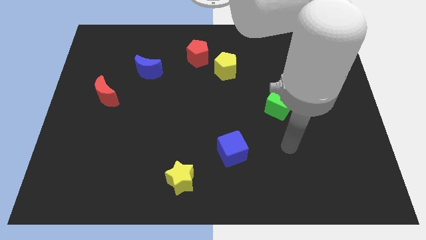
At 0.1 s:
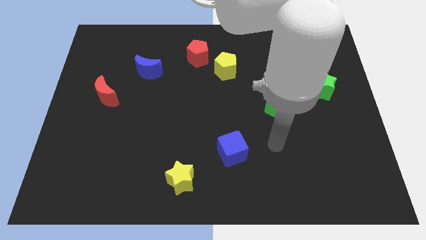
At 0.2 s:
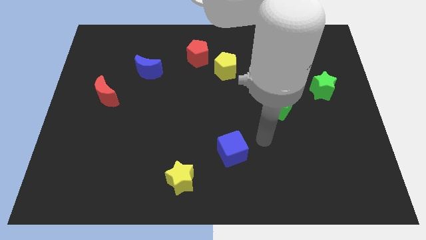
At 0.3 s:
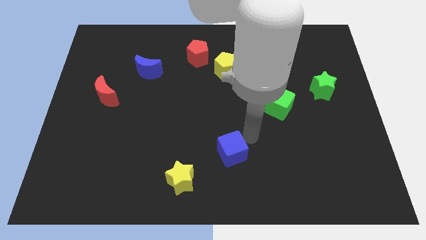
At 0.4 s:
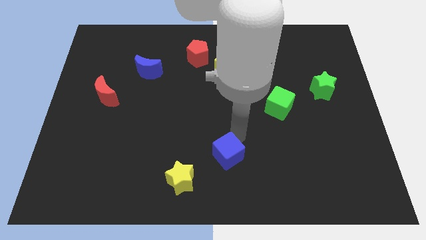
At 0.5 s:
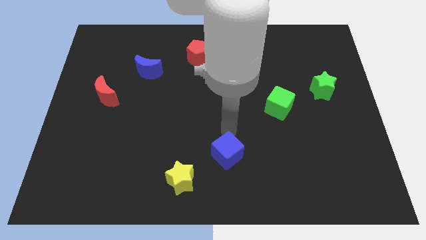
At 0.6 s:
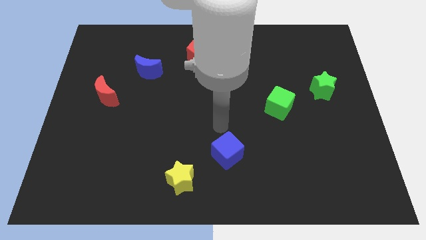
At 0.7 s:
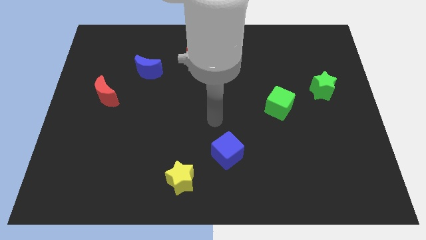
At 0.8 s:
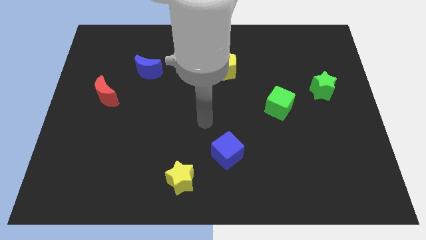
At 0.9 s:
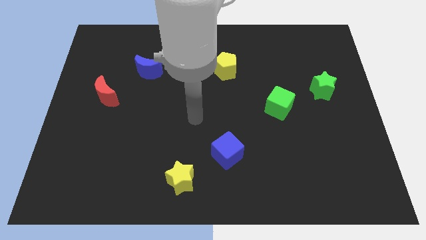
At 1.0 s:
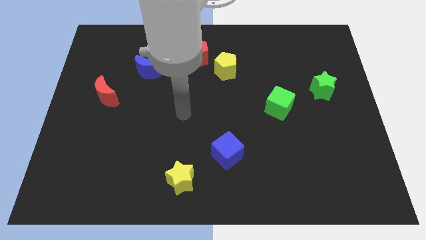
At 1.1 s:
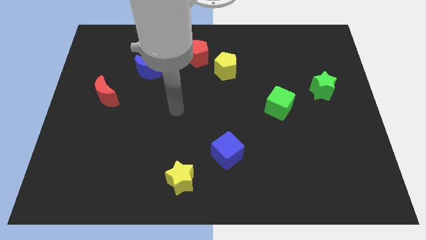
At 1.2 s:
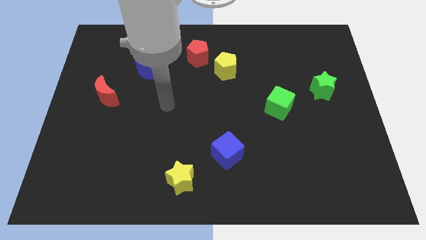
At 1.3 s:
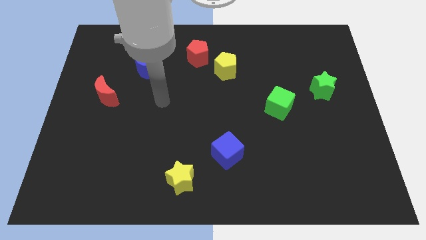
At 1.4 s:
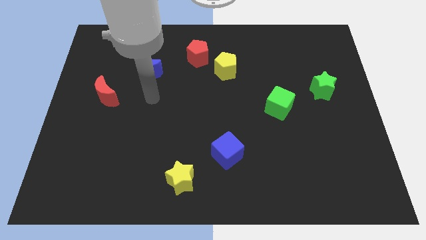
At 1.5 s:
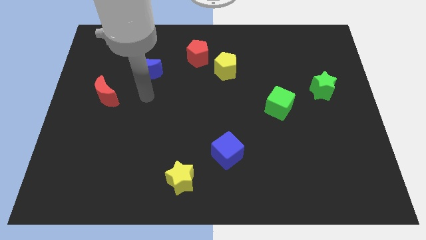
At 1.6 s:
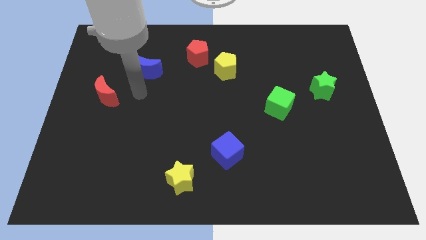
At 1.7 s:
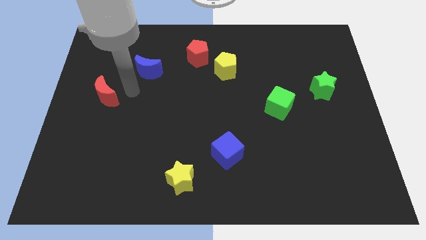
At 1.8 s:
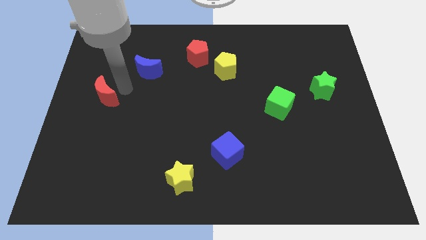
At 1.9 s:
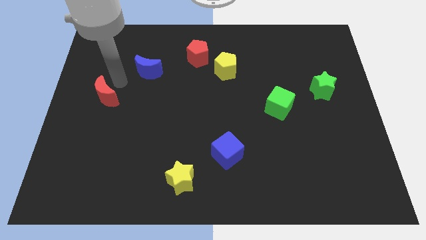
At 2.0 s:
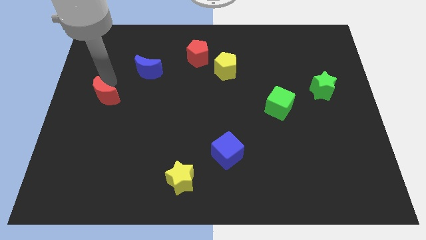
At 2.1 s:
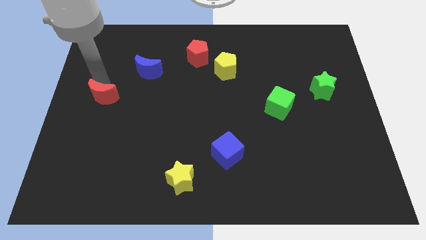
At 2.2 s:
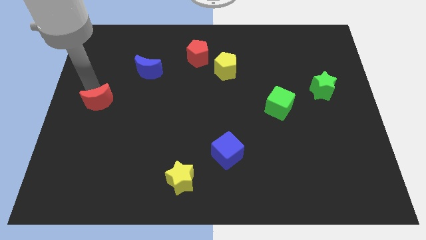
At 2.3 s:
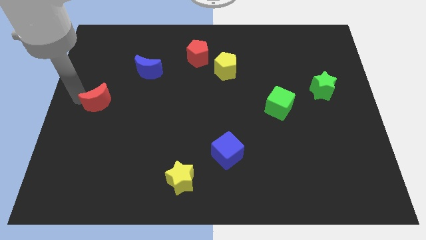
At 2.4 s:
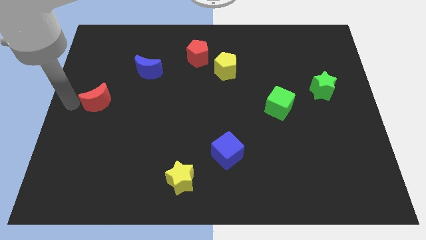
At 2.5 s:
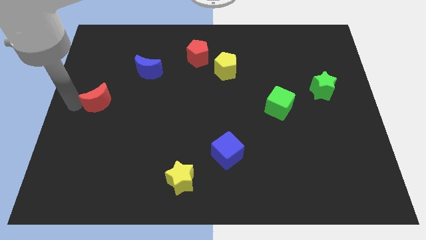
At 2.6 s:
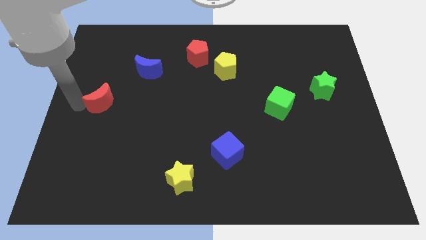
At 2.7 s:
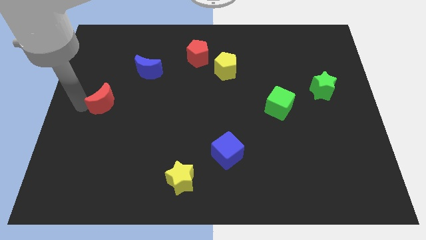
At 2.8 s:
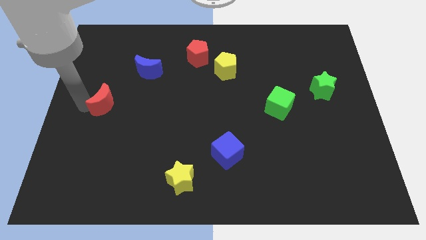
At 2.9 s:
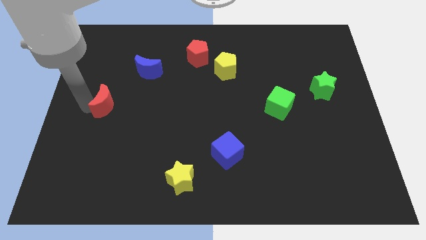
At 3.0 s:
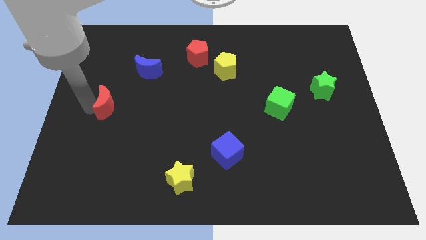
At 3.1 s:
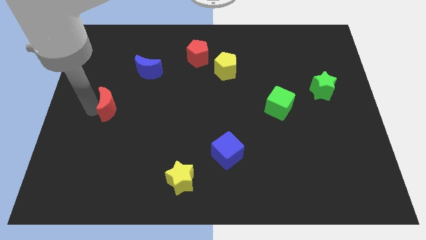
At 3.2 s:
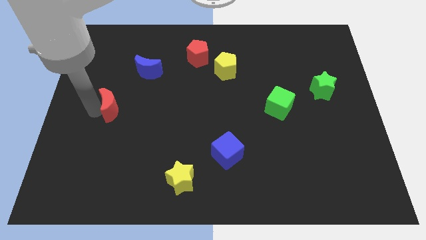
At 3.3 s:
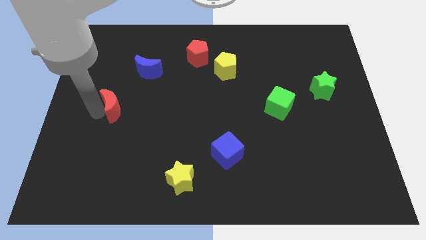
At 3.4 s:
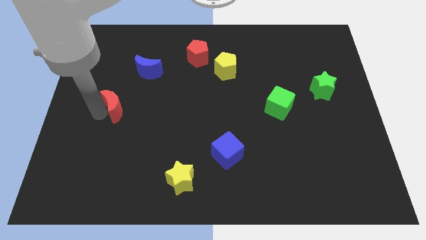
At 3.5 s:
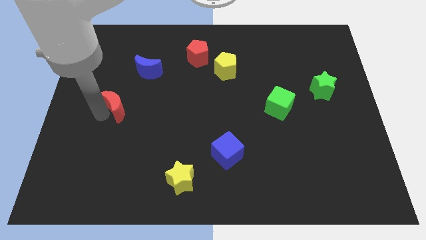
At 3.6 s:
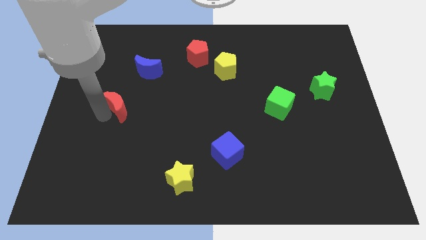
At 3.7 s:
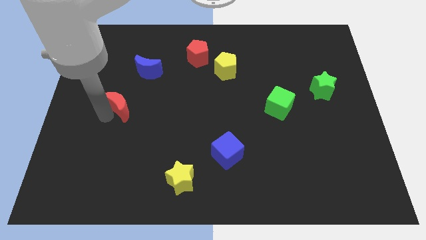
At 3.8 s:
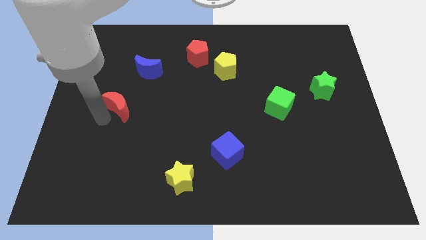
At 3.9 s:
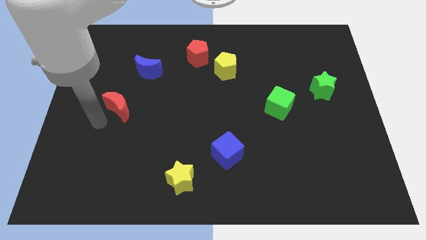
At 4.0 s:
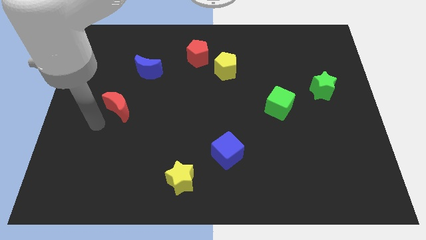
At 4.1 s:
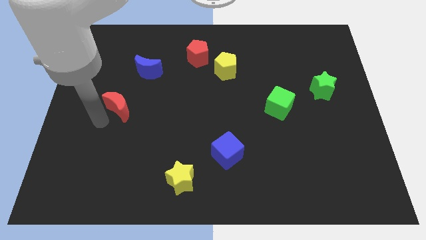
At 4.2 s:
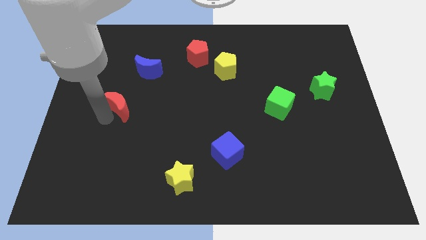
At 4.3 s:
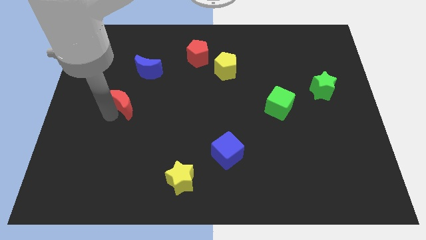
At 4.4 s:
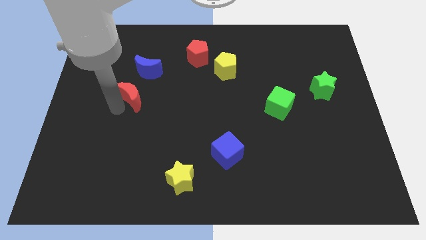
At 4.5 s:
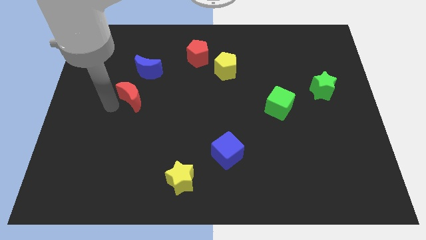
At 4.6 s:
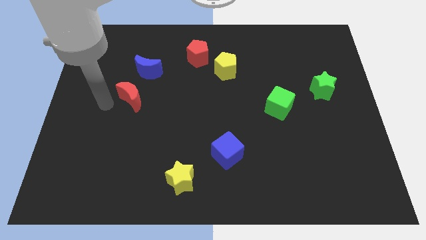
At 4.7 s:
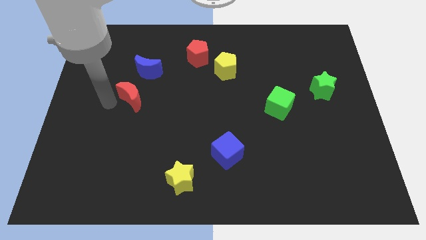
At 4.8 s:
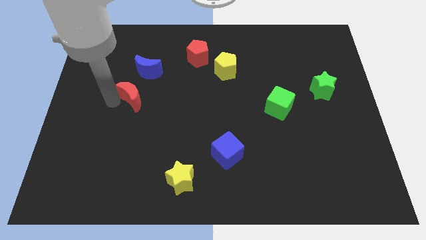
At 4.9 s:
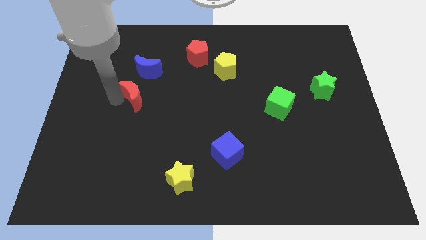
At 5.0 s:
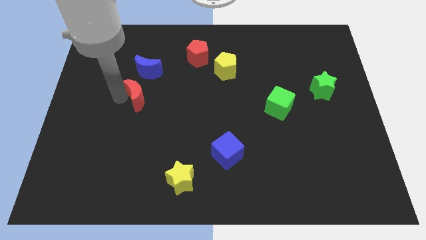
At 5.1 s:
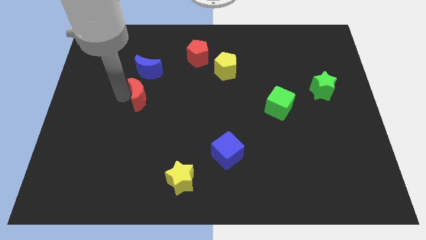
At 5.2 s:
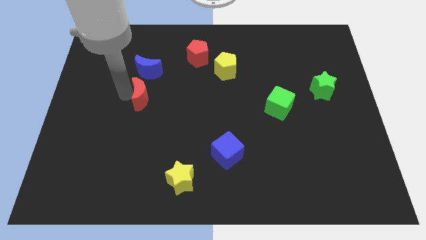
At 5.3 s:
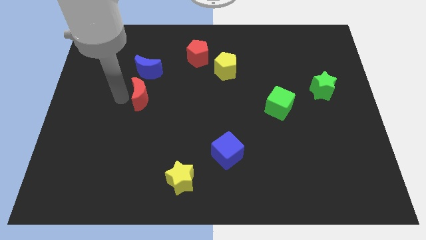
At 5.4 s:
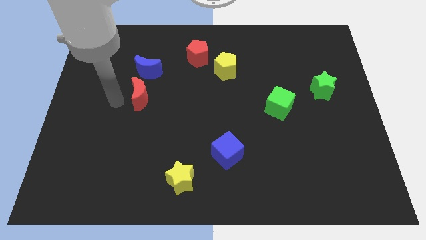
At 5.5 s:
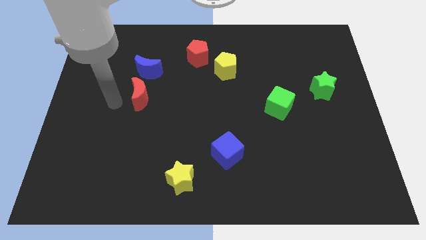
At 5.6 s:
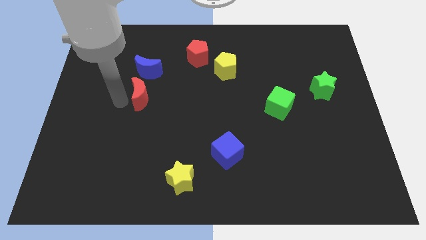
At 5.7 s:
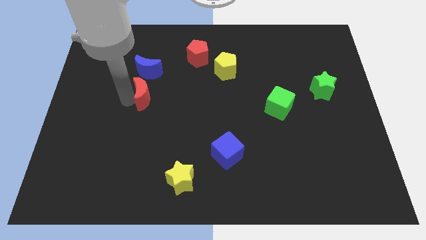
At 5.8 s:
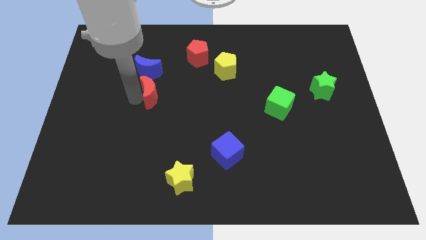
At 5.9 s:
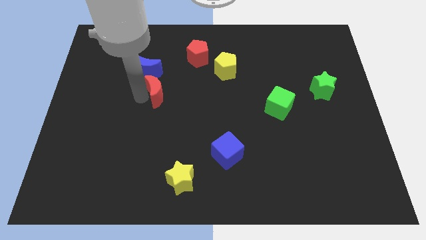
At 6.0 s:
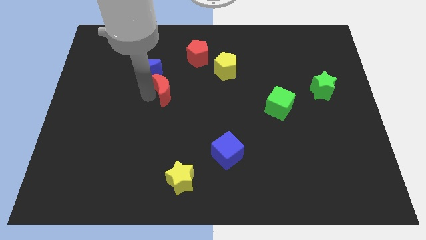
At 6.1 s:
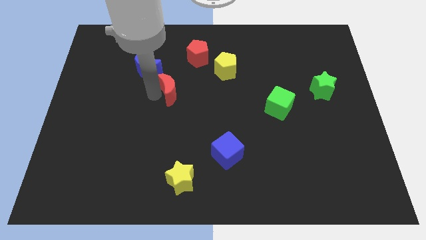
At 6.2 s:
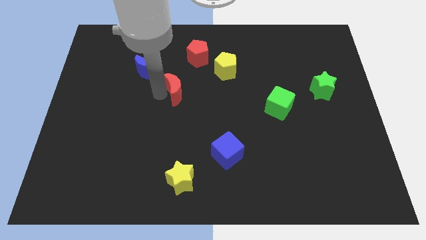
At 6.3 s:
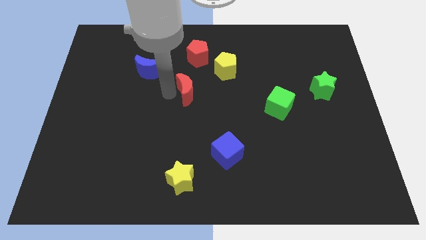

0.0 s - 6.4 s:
push the red moon to the bottom left side of the yellow pentagon

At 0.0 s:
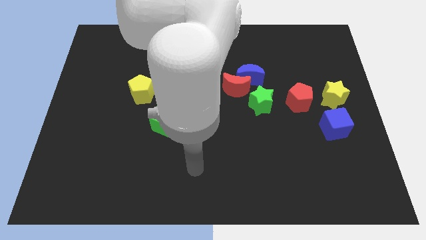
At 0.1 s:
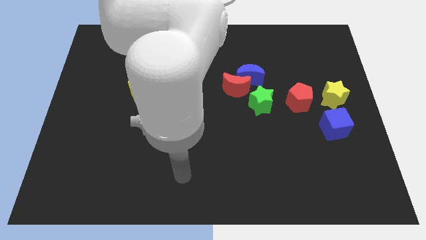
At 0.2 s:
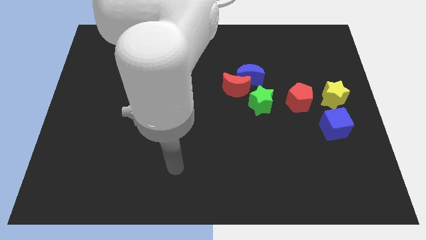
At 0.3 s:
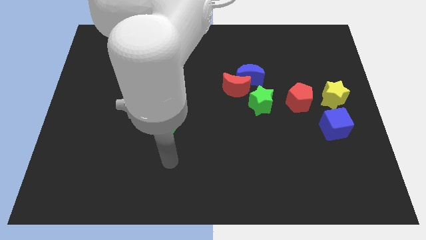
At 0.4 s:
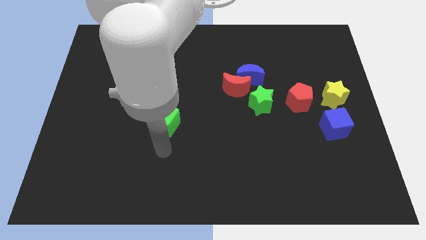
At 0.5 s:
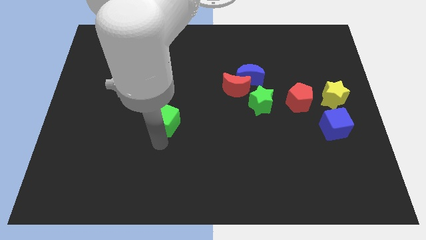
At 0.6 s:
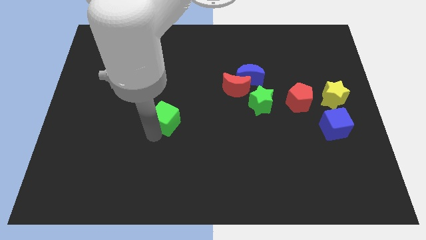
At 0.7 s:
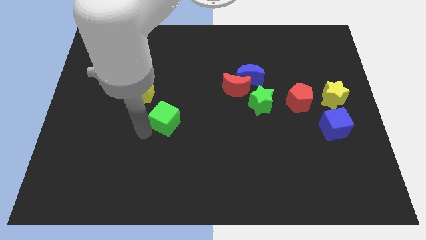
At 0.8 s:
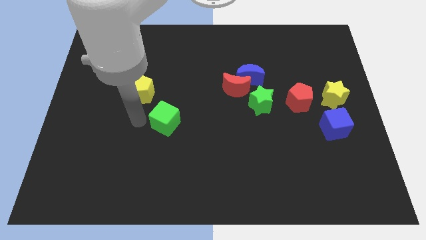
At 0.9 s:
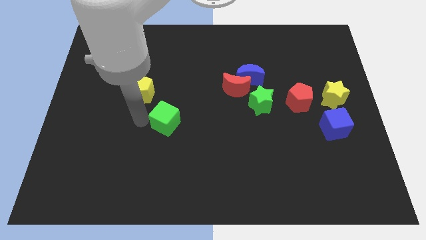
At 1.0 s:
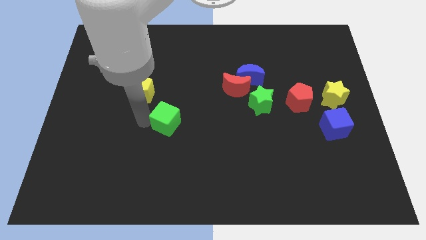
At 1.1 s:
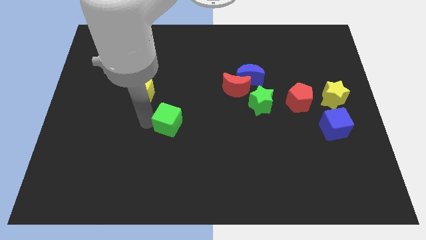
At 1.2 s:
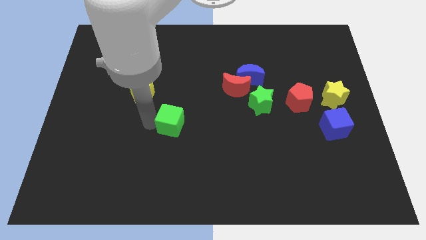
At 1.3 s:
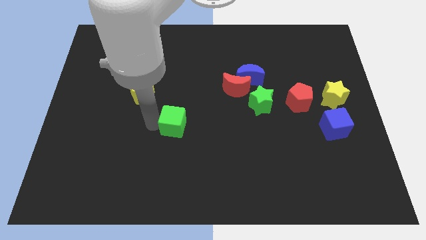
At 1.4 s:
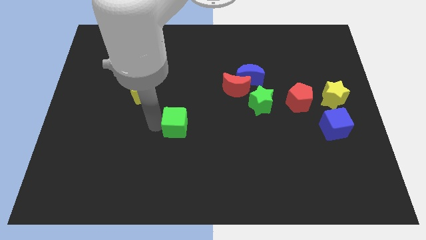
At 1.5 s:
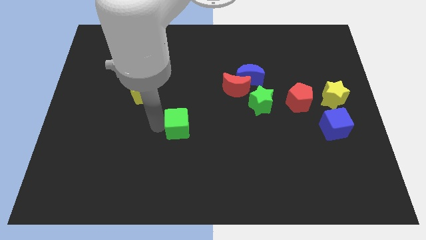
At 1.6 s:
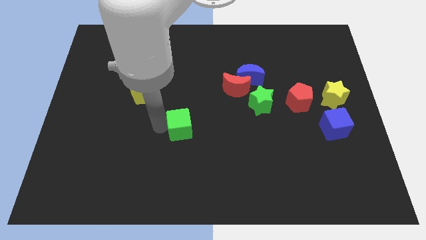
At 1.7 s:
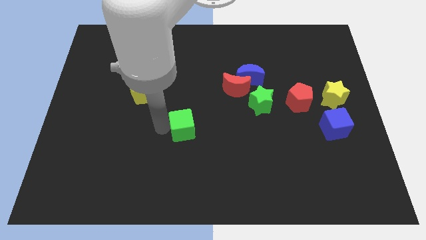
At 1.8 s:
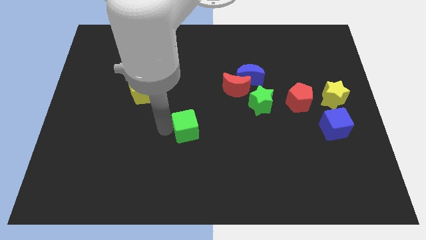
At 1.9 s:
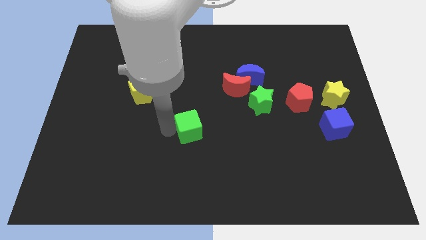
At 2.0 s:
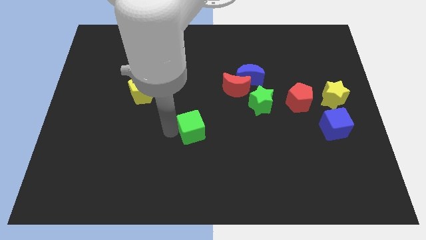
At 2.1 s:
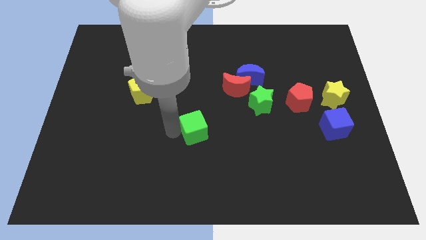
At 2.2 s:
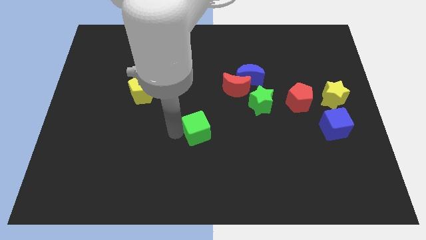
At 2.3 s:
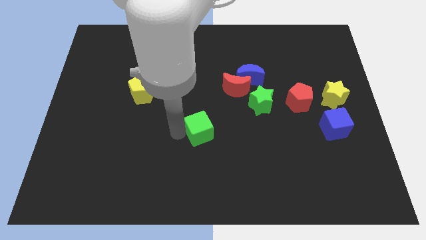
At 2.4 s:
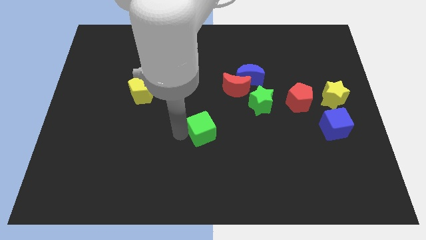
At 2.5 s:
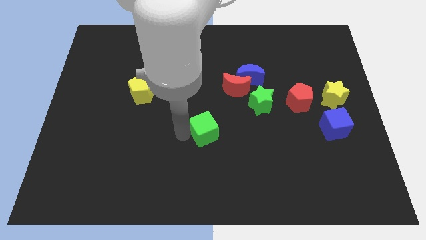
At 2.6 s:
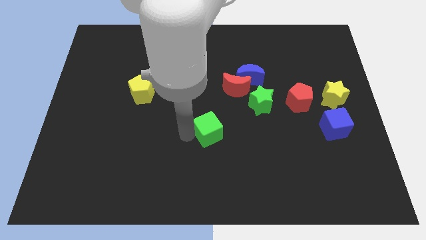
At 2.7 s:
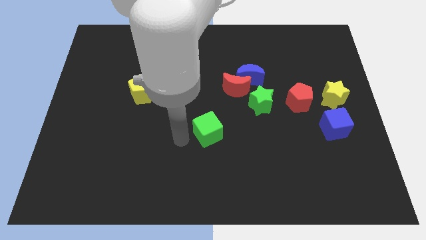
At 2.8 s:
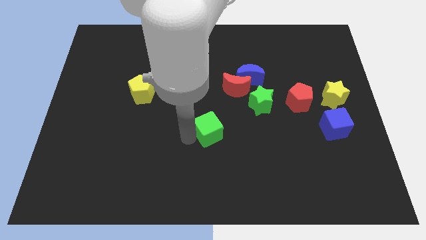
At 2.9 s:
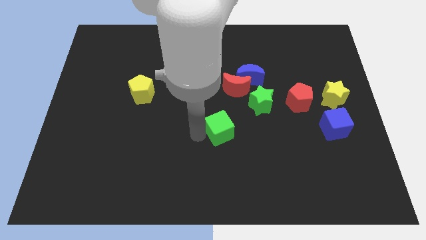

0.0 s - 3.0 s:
move the green cube diagonally down and to the left of the green star
